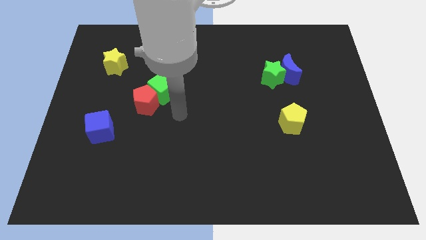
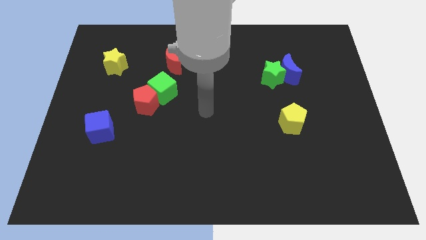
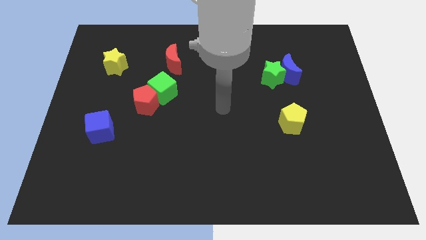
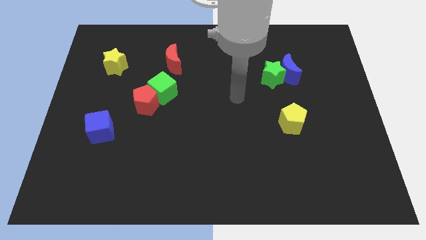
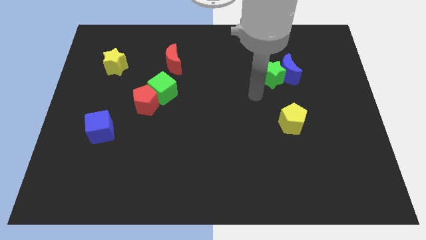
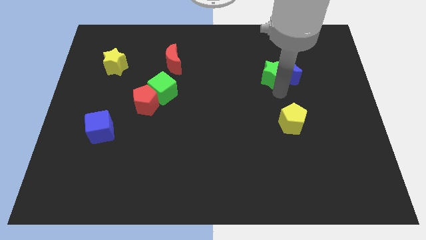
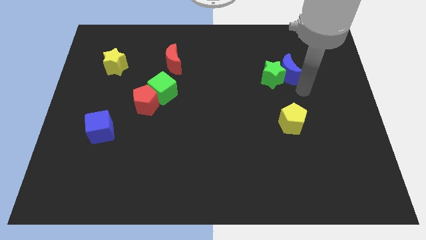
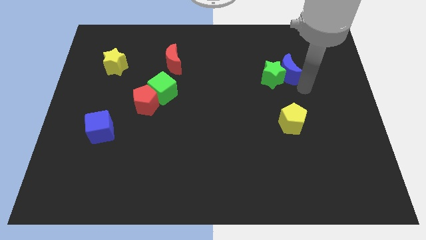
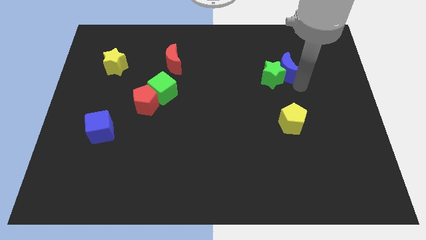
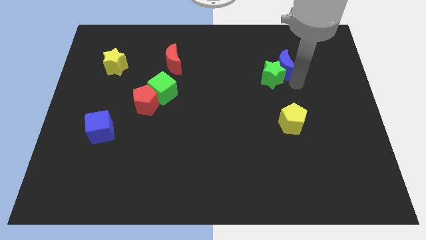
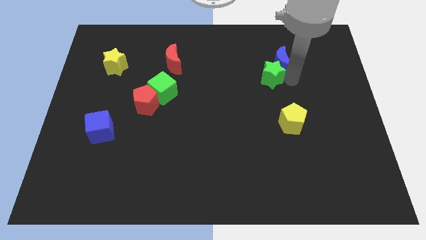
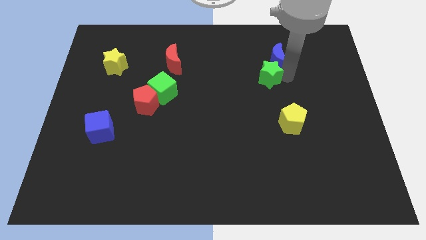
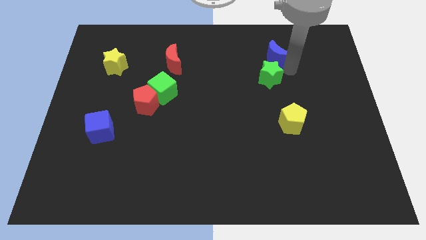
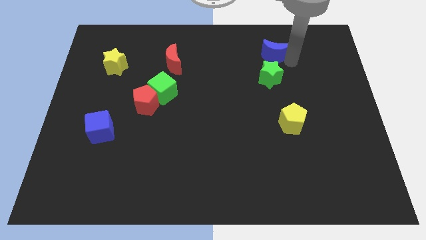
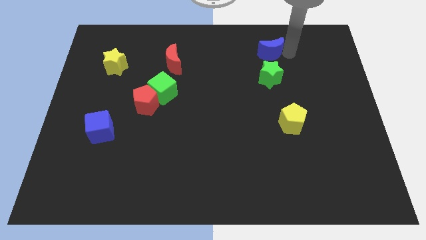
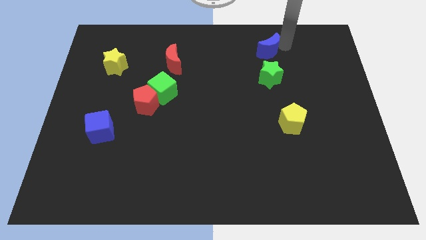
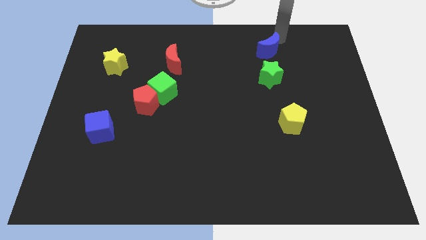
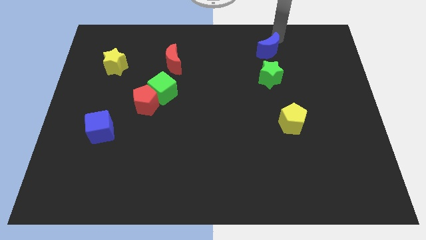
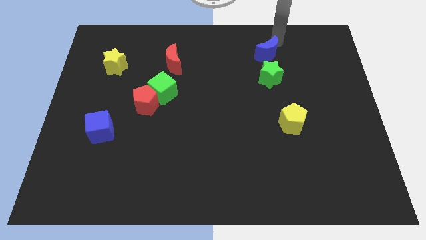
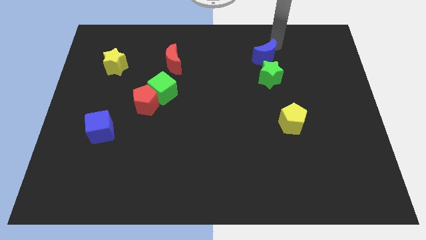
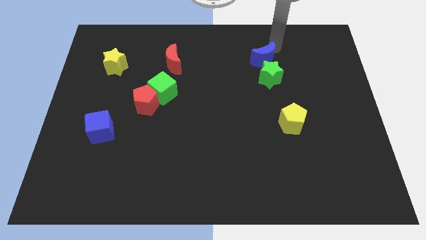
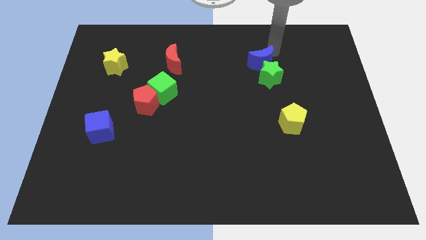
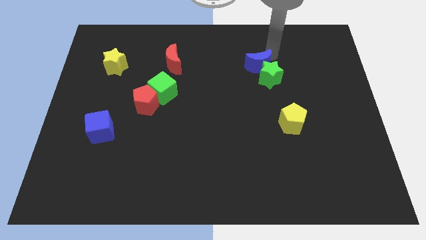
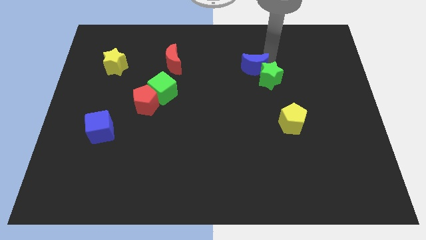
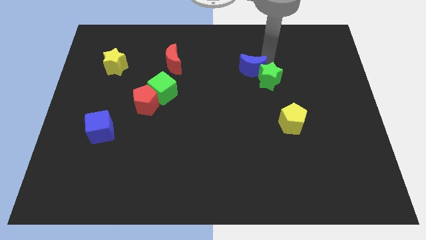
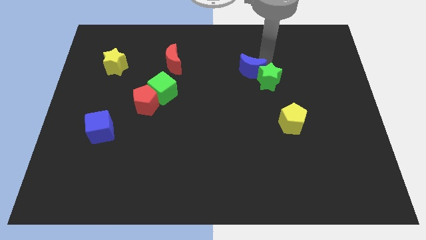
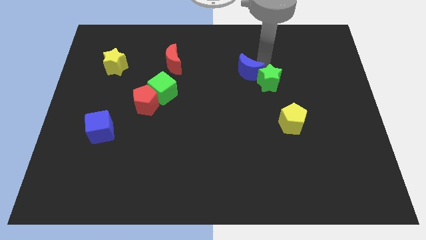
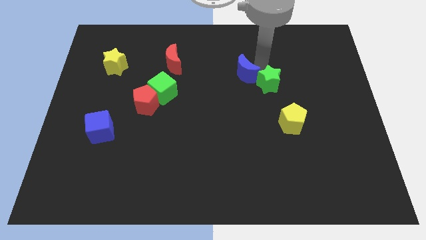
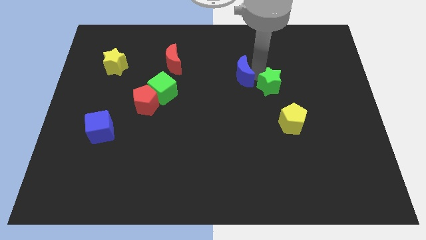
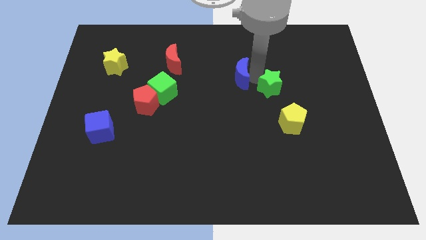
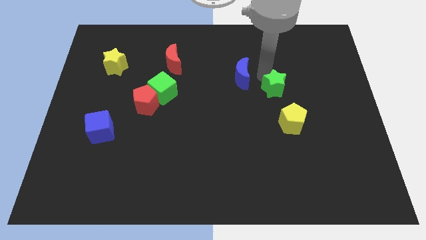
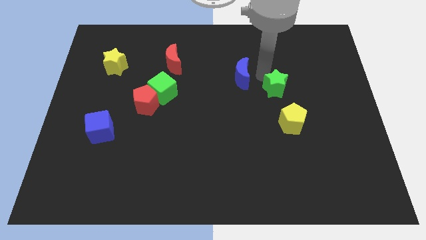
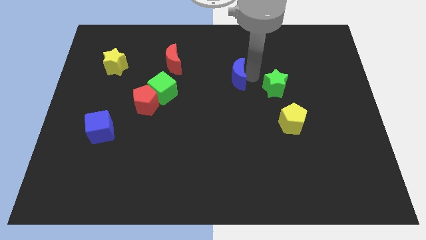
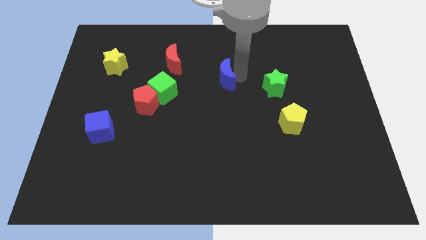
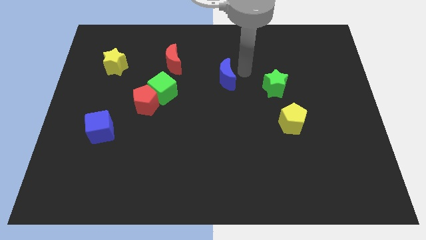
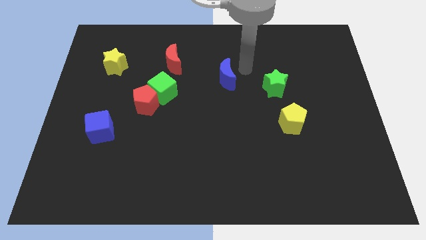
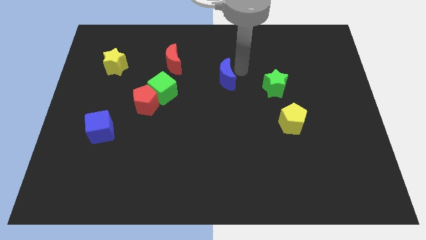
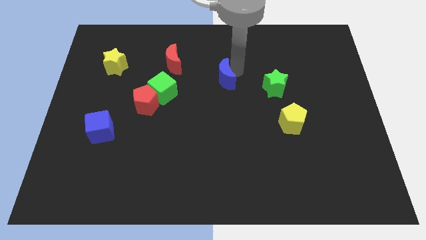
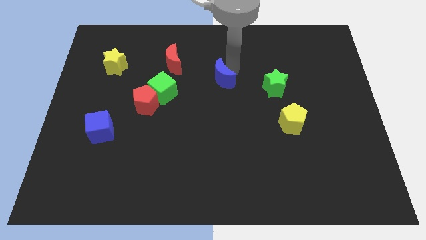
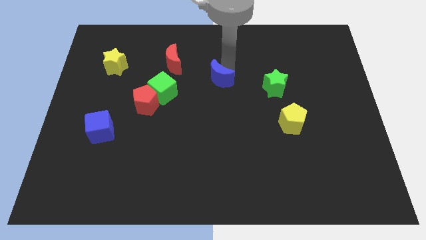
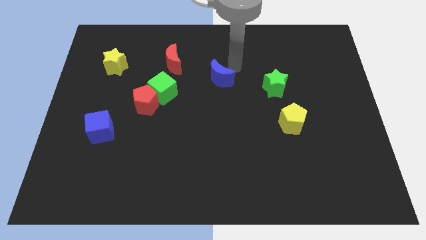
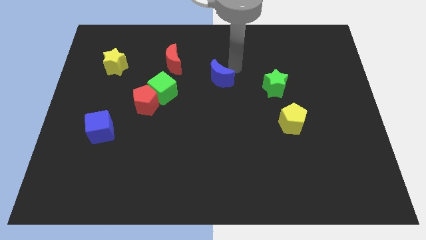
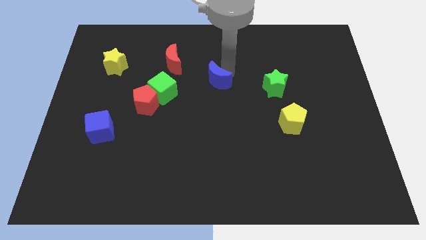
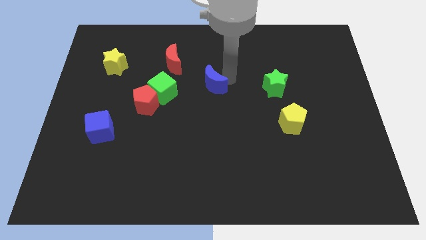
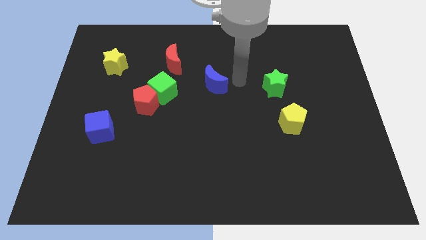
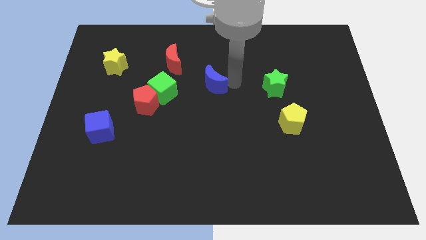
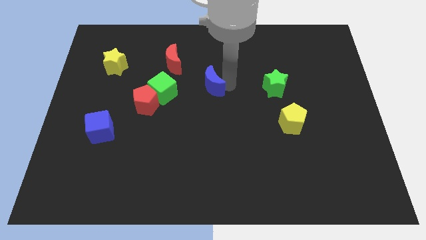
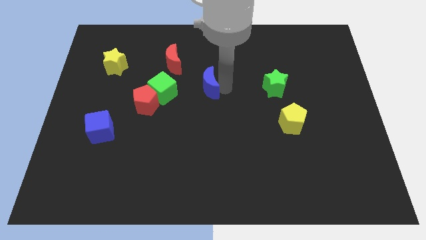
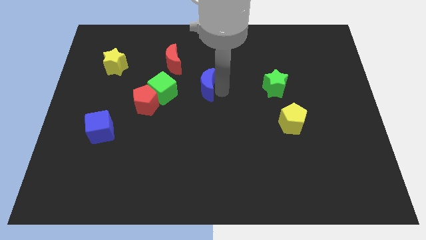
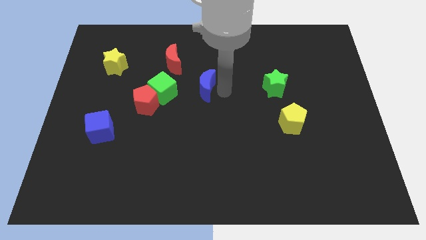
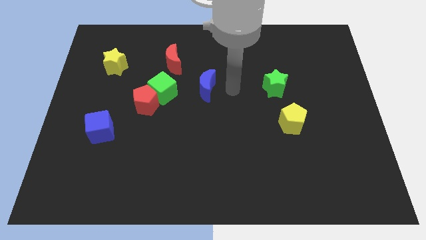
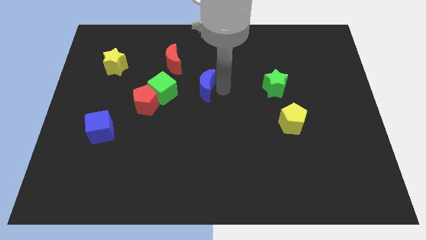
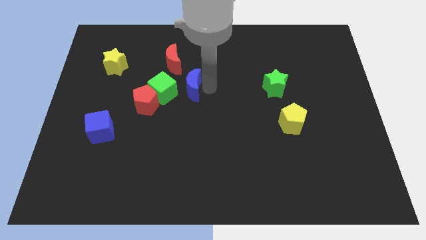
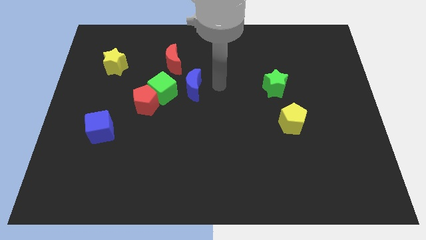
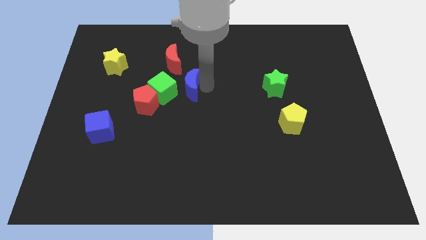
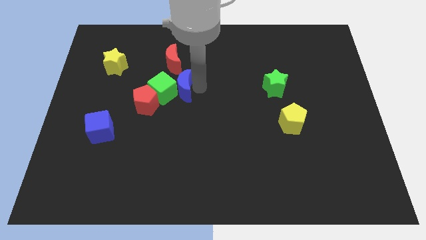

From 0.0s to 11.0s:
push the blue moon towards the green cube

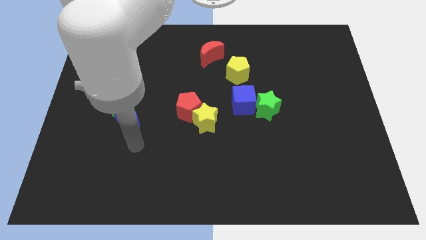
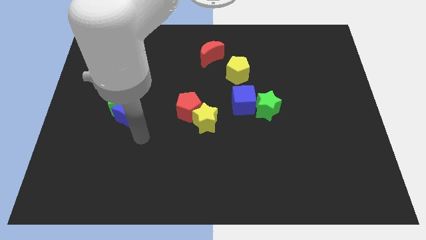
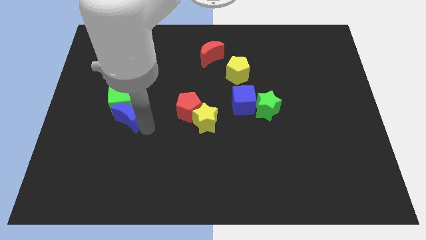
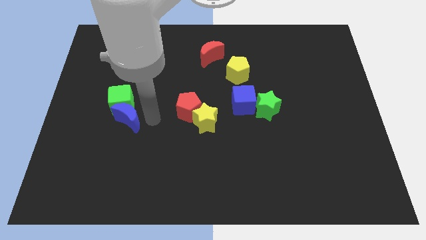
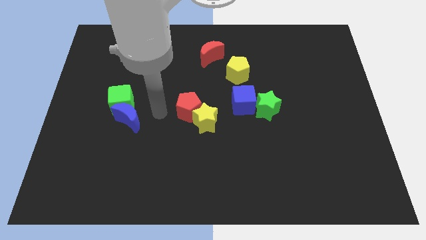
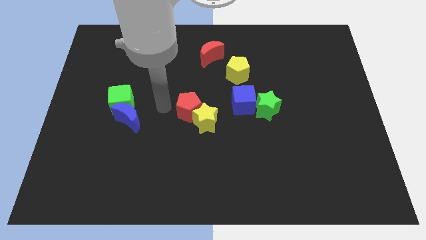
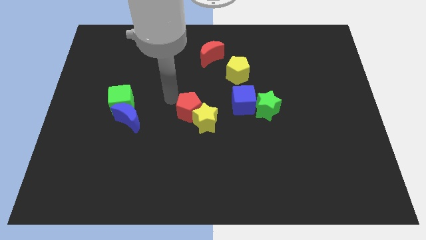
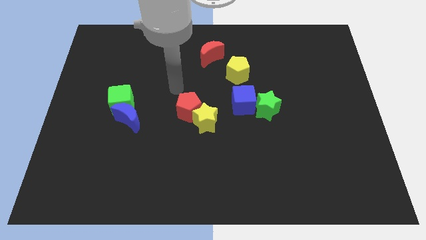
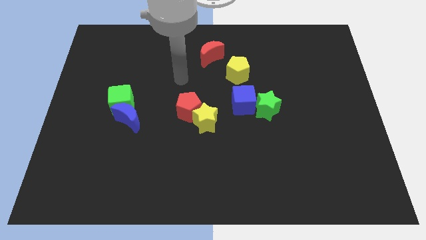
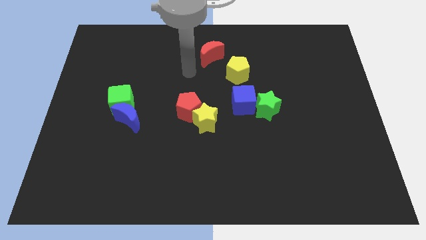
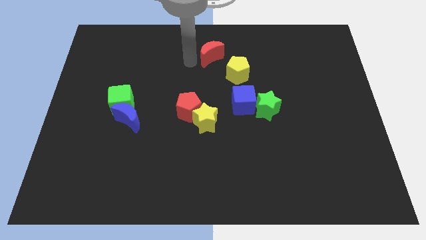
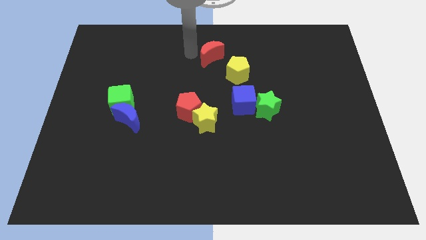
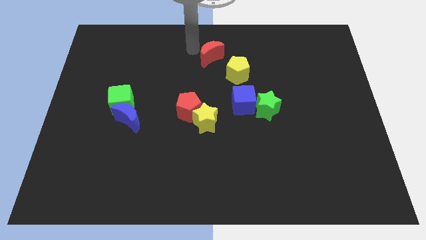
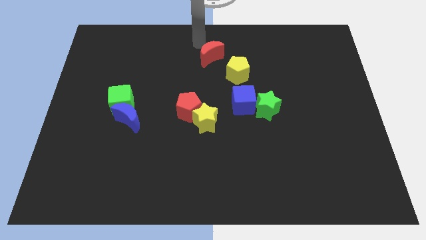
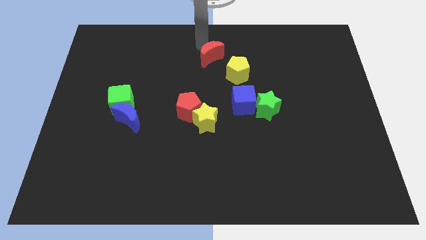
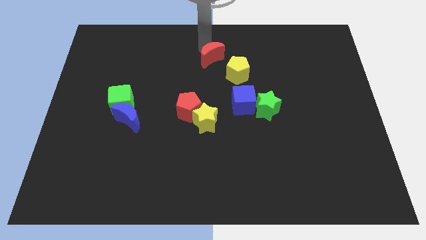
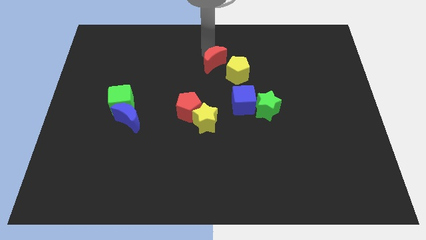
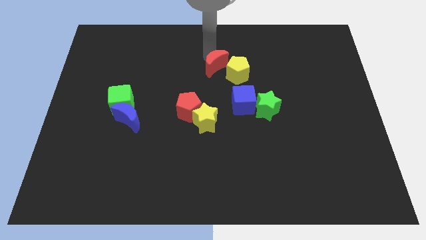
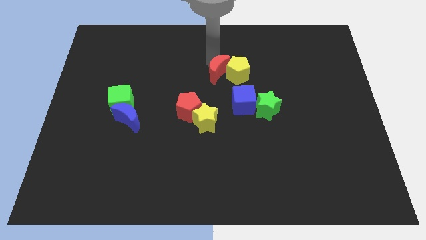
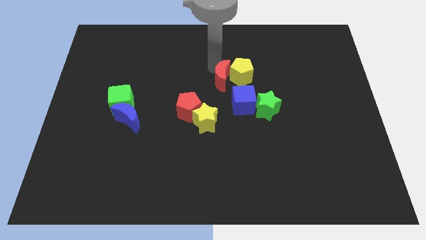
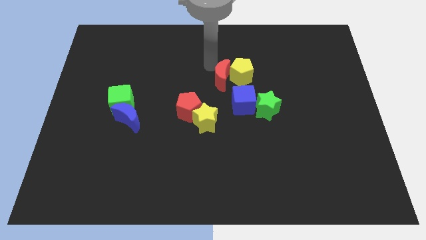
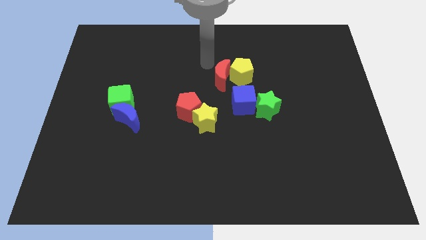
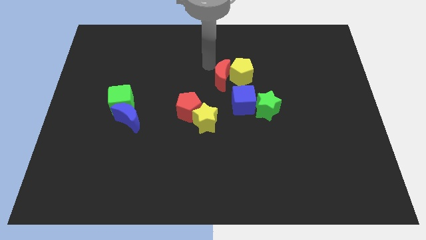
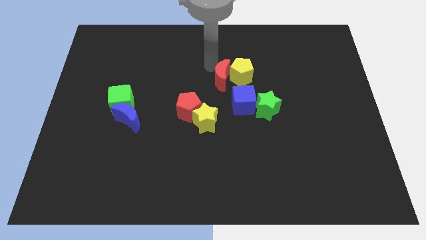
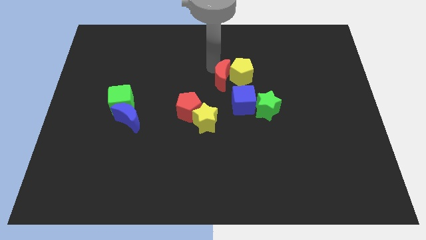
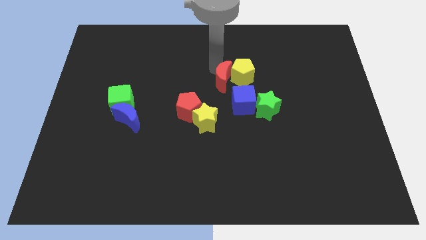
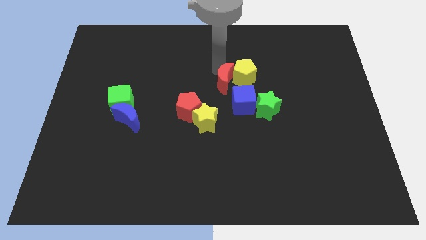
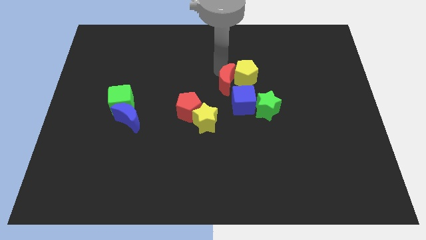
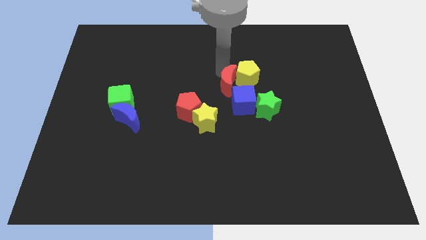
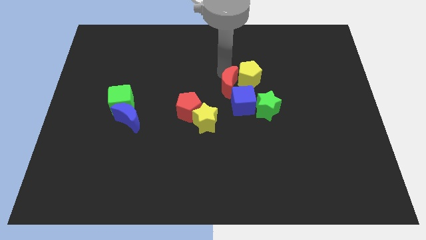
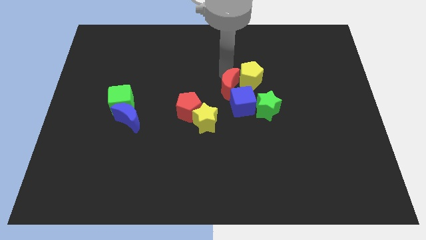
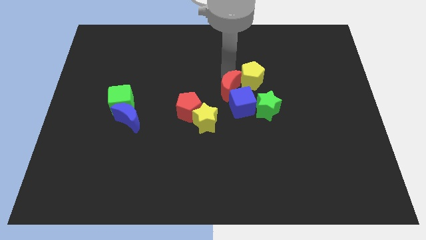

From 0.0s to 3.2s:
push the red moon to the blue cube
